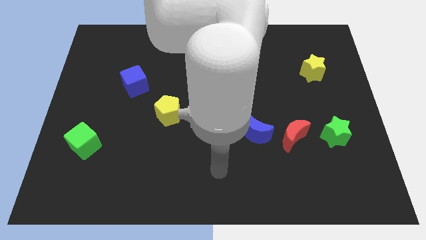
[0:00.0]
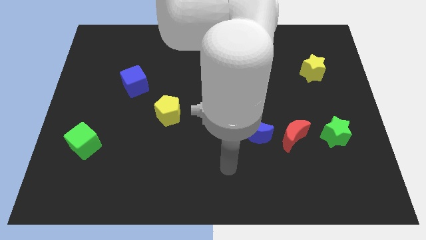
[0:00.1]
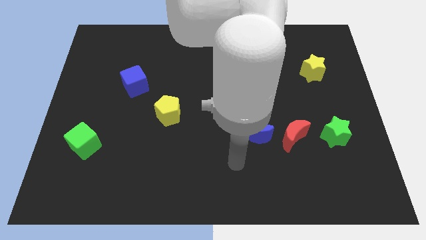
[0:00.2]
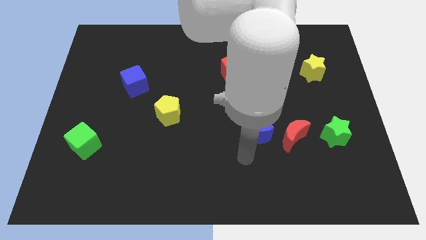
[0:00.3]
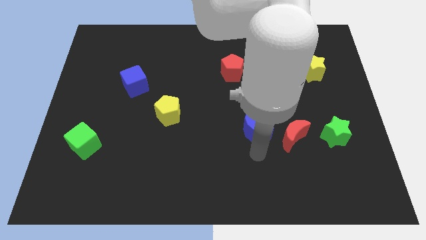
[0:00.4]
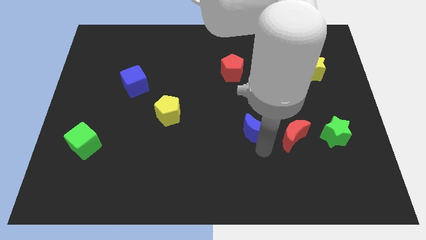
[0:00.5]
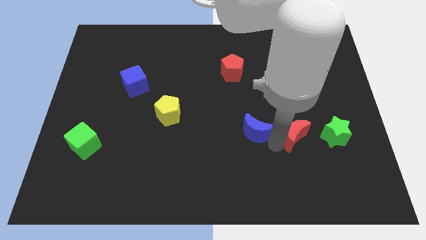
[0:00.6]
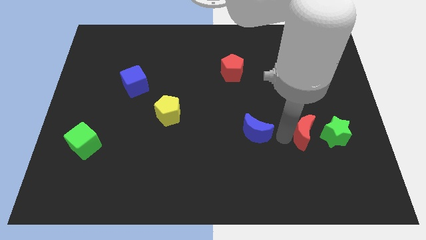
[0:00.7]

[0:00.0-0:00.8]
move the blue moon away from the red moon

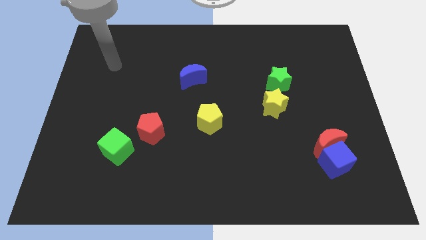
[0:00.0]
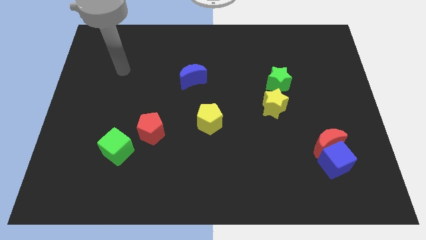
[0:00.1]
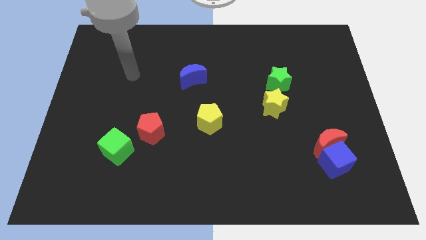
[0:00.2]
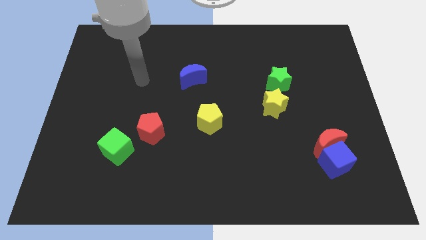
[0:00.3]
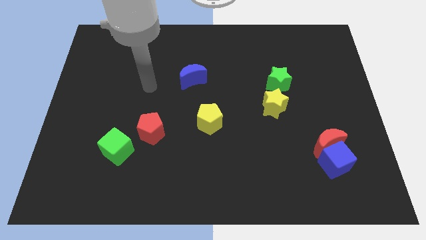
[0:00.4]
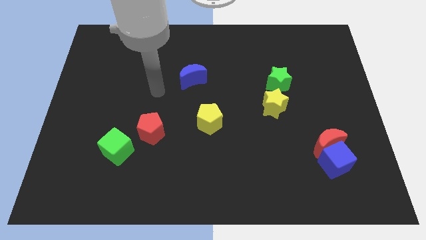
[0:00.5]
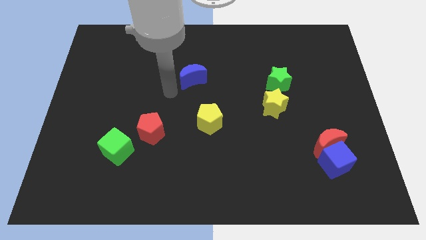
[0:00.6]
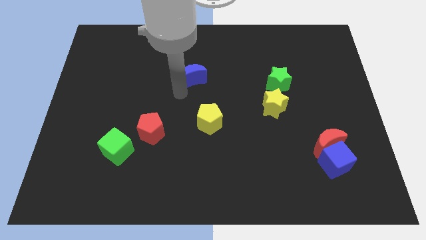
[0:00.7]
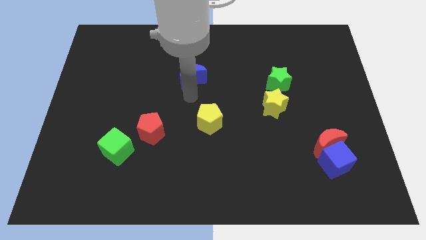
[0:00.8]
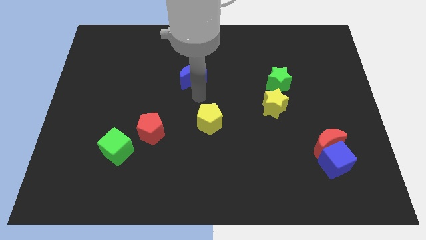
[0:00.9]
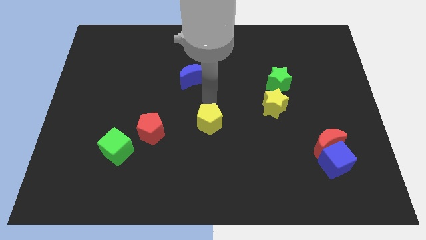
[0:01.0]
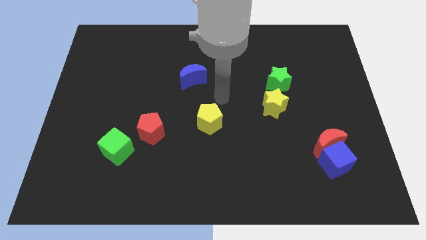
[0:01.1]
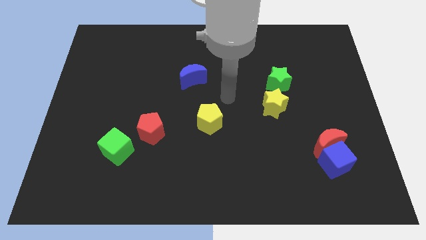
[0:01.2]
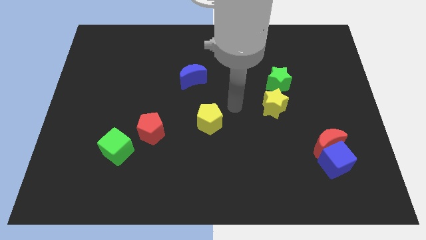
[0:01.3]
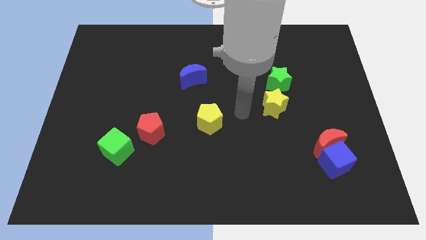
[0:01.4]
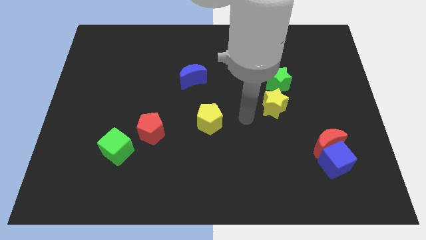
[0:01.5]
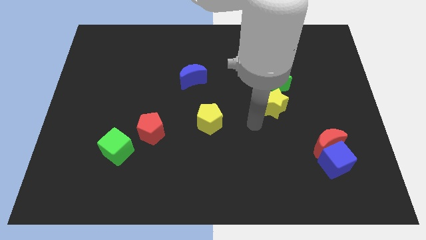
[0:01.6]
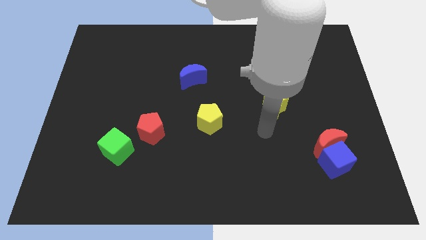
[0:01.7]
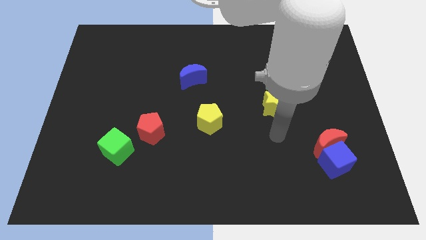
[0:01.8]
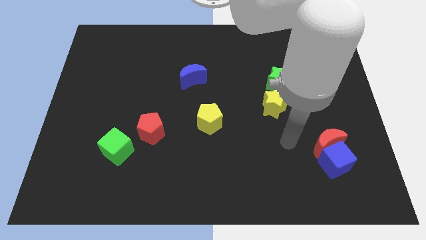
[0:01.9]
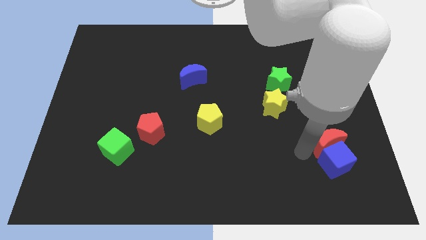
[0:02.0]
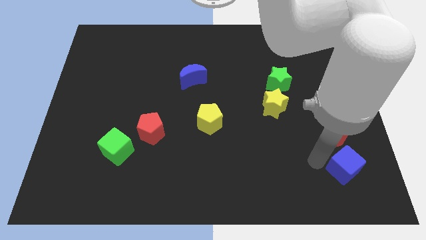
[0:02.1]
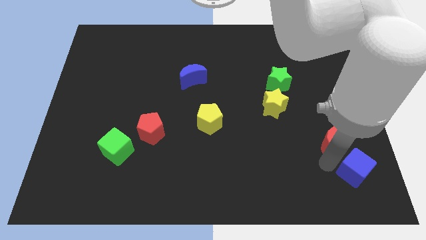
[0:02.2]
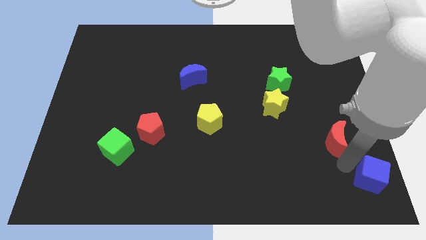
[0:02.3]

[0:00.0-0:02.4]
separate the red moon from the blue cube

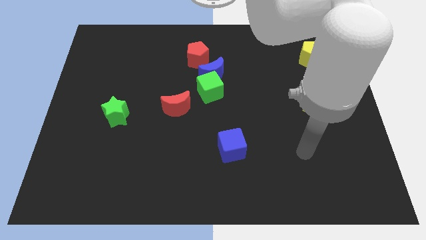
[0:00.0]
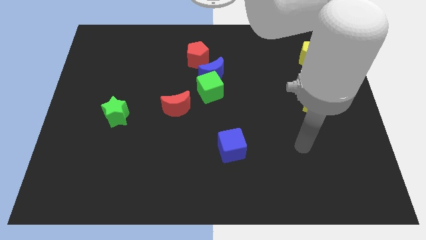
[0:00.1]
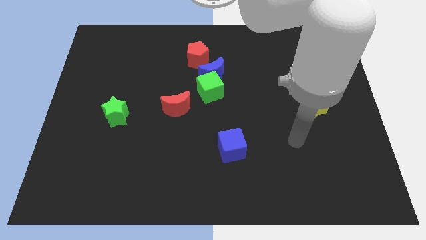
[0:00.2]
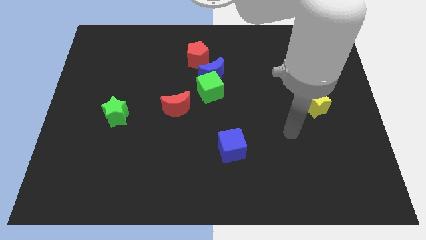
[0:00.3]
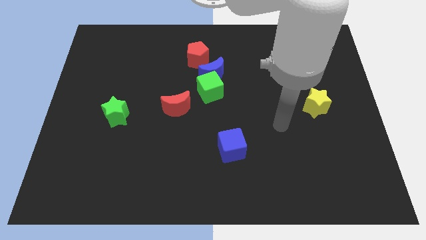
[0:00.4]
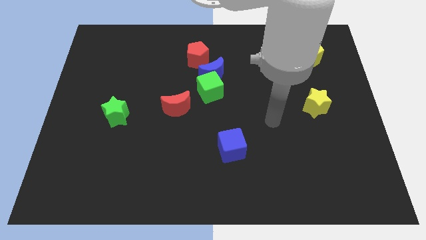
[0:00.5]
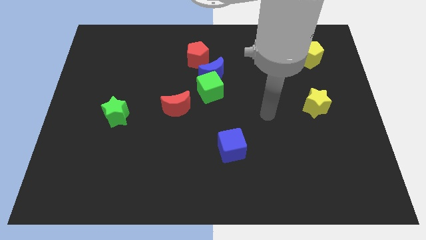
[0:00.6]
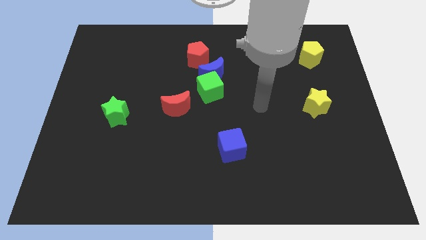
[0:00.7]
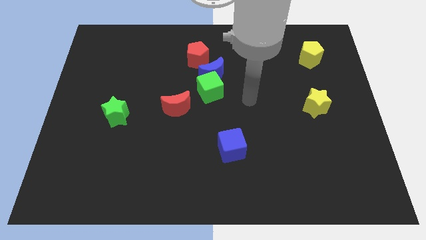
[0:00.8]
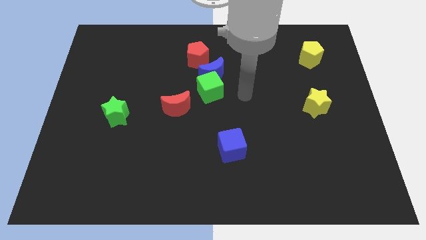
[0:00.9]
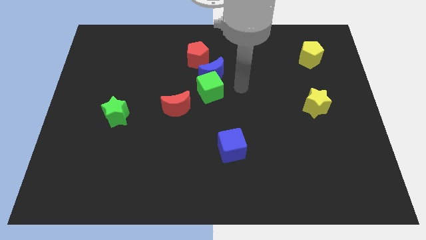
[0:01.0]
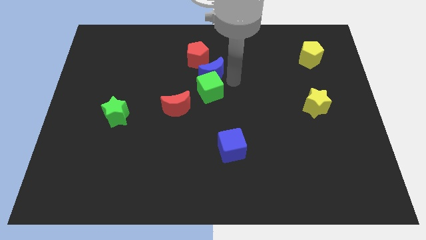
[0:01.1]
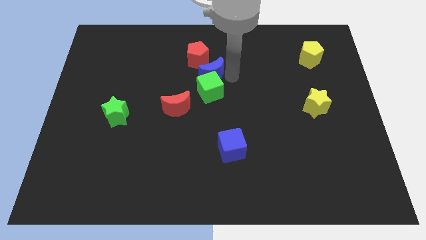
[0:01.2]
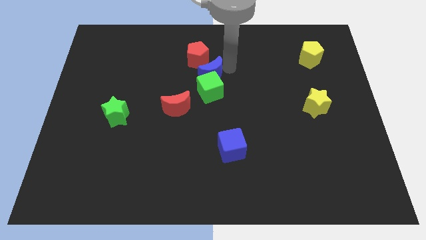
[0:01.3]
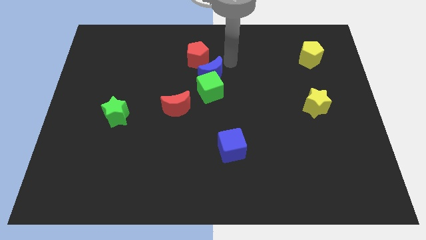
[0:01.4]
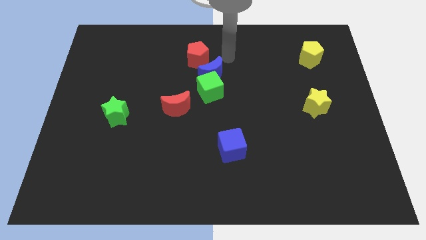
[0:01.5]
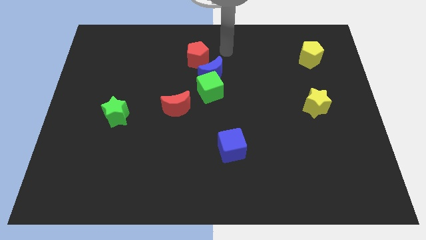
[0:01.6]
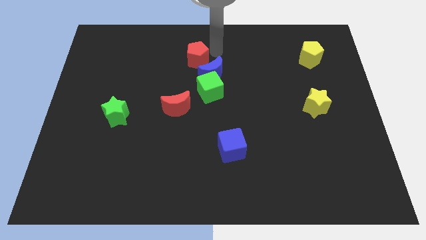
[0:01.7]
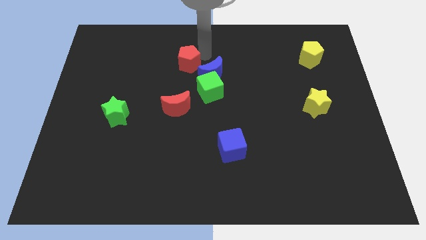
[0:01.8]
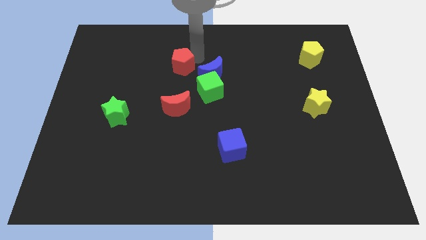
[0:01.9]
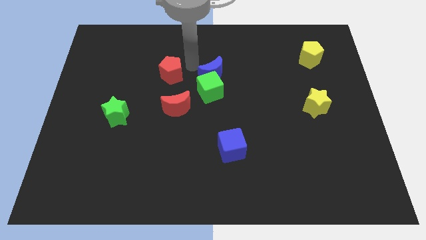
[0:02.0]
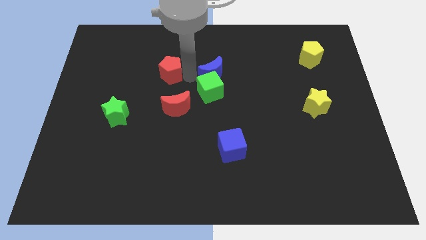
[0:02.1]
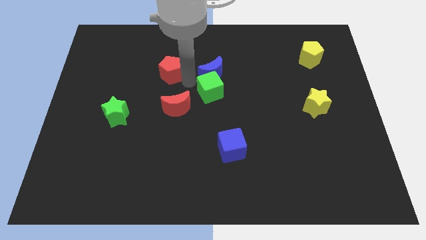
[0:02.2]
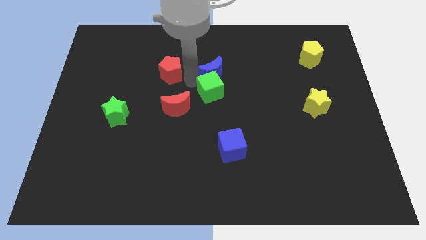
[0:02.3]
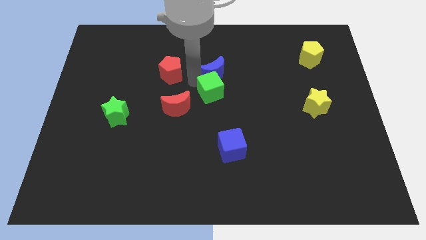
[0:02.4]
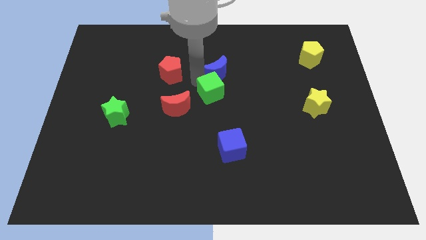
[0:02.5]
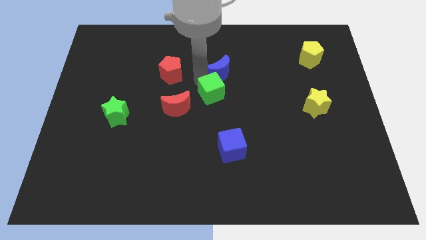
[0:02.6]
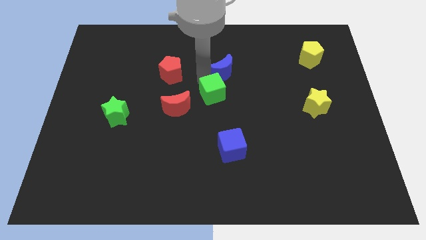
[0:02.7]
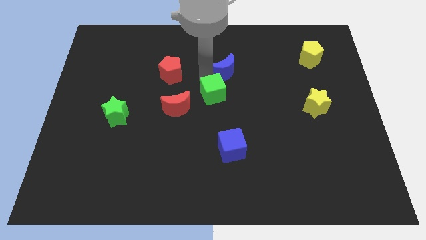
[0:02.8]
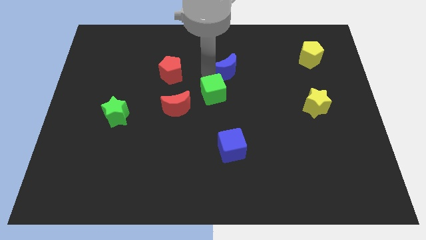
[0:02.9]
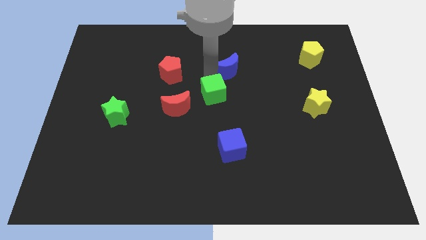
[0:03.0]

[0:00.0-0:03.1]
move the blue moon away from the green cube and red pentagon

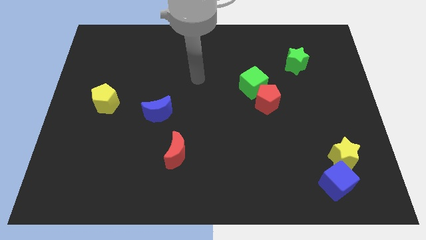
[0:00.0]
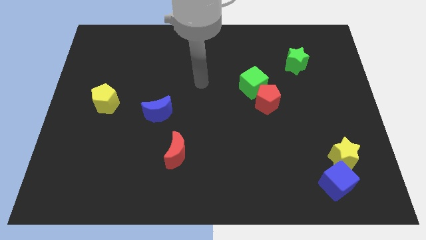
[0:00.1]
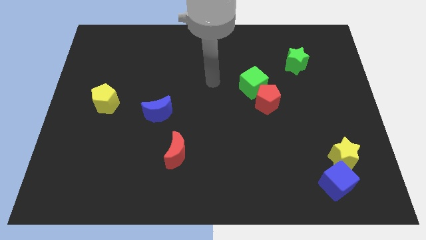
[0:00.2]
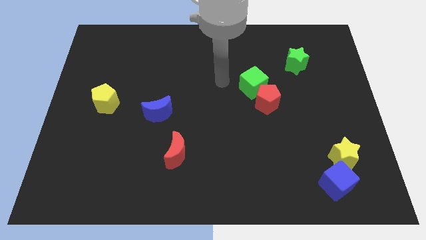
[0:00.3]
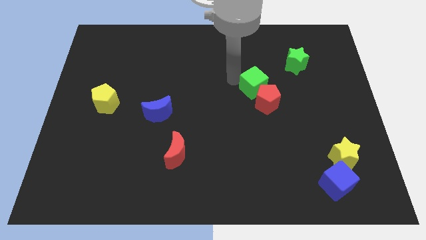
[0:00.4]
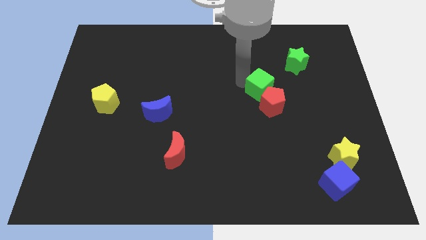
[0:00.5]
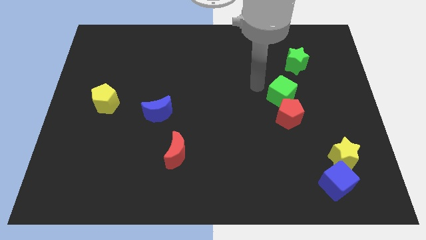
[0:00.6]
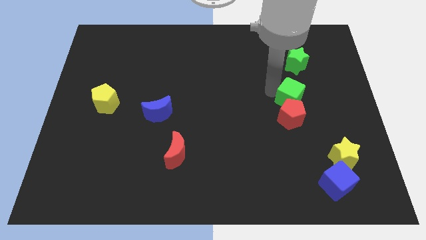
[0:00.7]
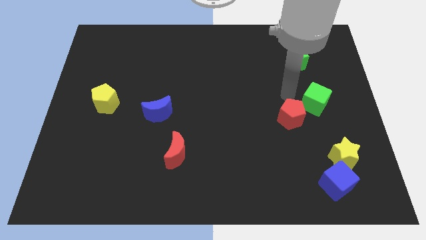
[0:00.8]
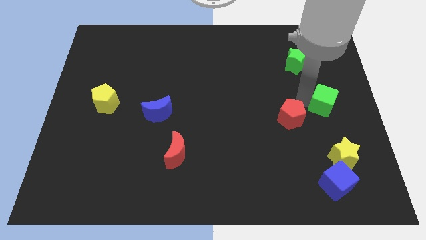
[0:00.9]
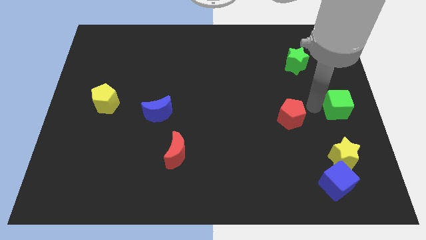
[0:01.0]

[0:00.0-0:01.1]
separate the red pentagon from the green cube

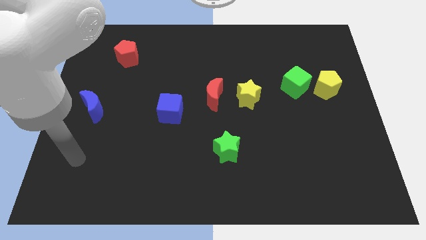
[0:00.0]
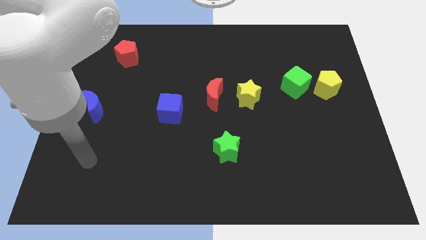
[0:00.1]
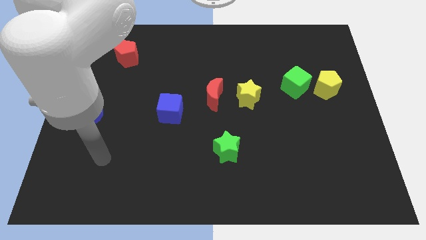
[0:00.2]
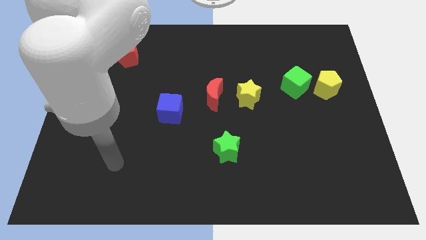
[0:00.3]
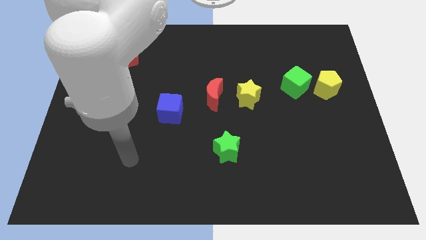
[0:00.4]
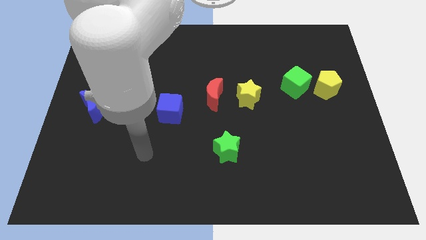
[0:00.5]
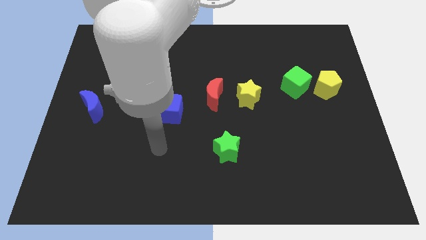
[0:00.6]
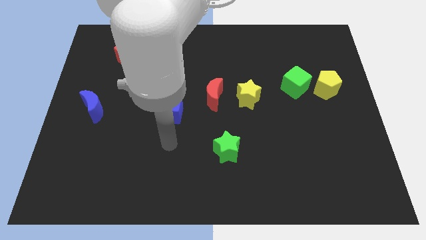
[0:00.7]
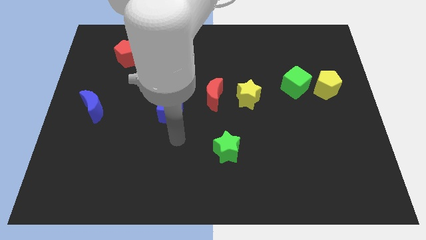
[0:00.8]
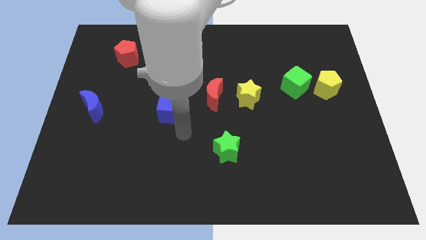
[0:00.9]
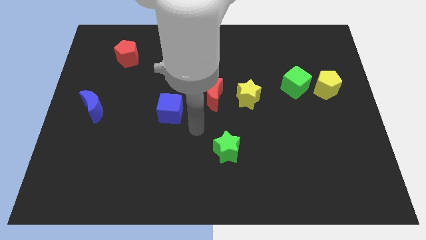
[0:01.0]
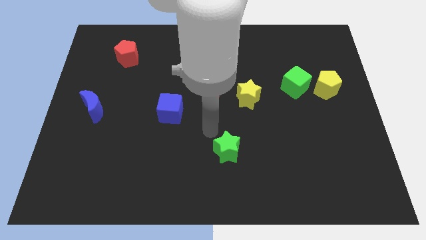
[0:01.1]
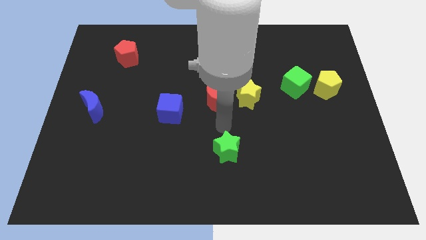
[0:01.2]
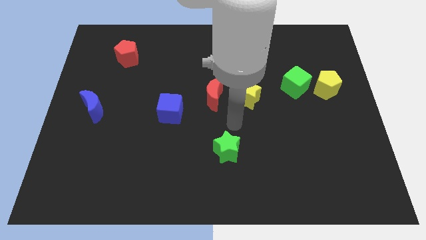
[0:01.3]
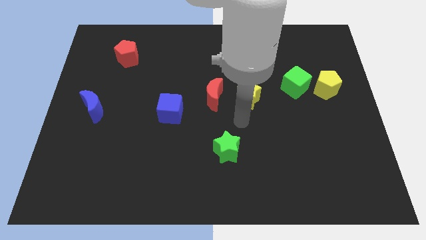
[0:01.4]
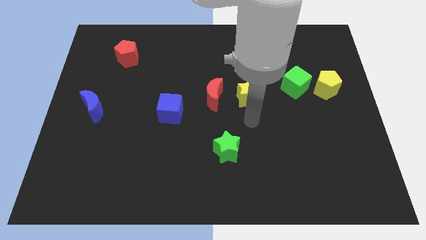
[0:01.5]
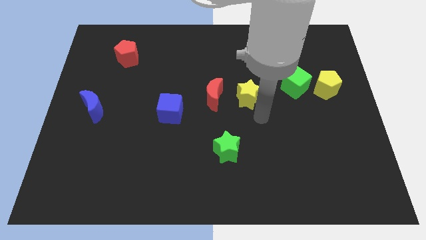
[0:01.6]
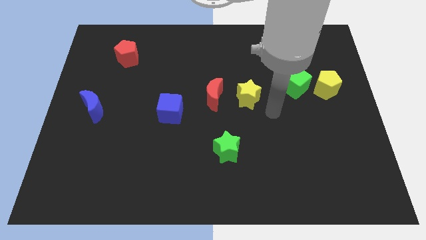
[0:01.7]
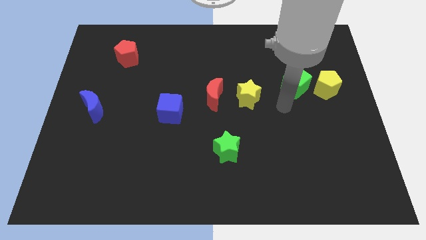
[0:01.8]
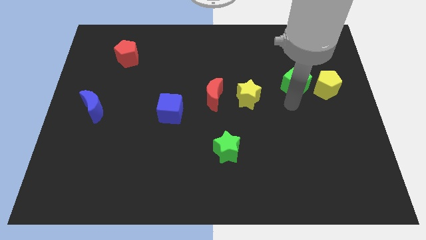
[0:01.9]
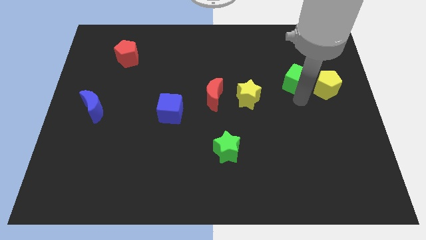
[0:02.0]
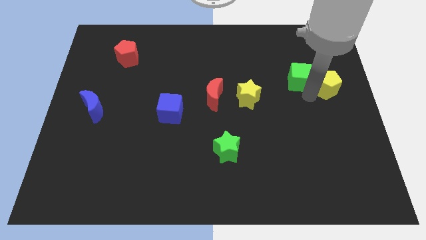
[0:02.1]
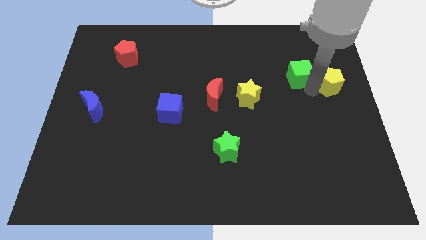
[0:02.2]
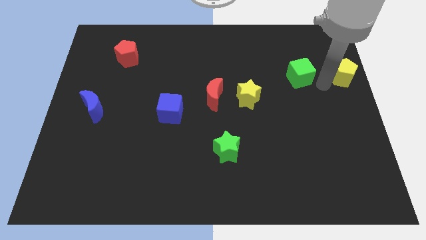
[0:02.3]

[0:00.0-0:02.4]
separate the green cube from the yellow pentagon
